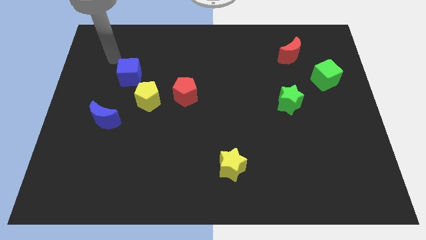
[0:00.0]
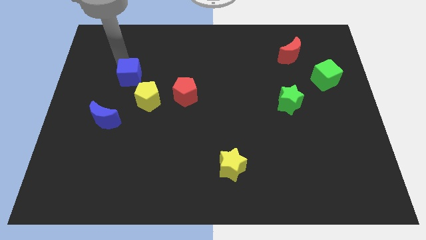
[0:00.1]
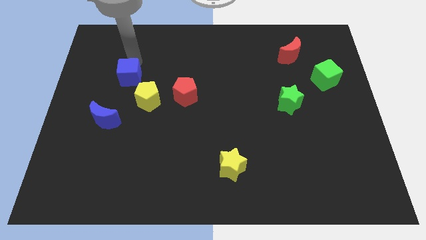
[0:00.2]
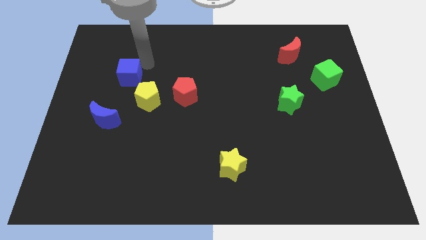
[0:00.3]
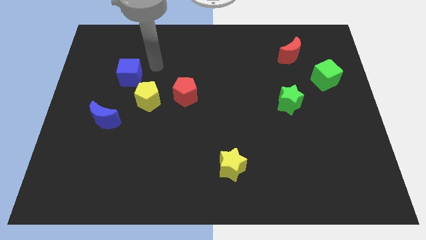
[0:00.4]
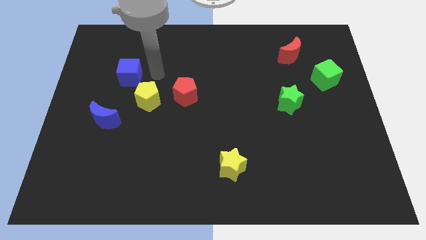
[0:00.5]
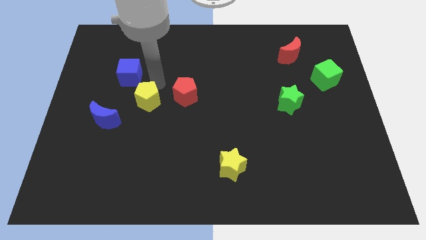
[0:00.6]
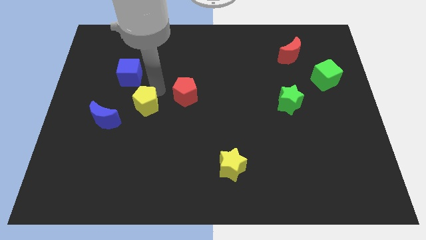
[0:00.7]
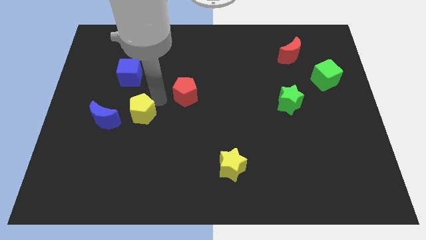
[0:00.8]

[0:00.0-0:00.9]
pull the red pentagon apart from the yellow pentagon

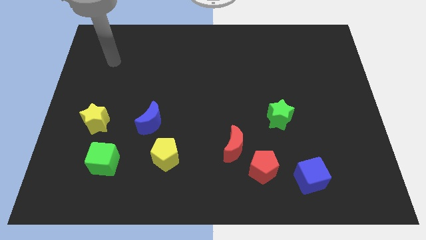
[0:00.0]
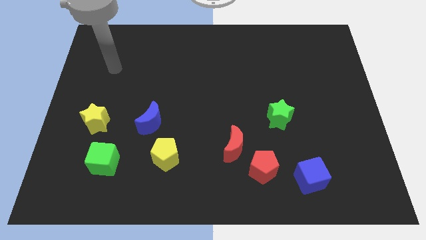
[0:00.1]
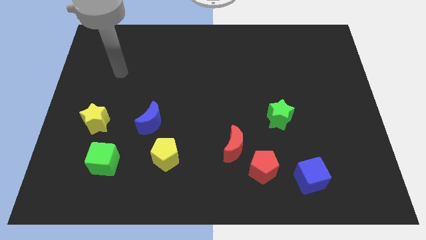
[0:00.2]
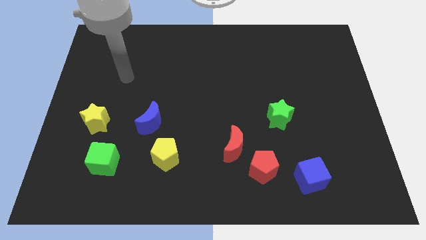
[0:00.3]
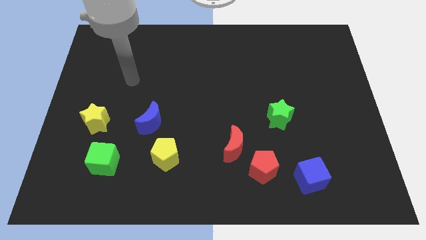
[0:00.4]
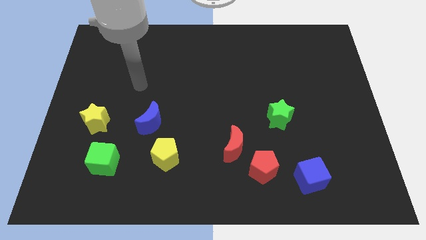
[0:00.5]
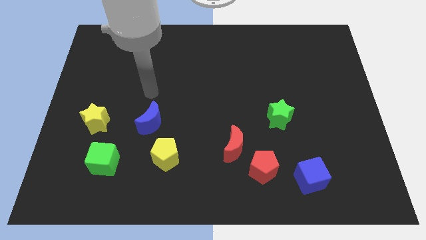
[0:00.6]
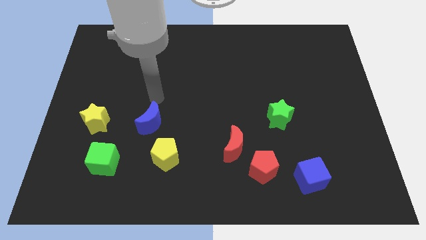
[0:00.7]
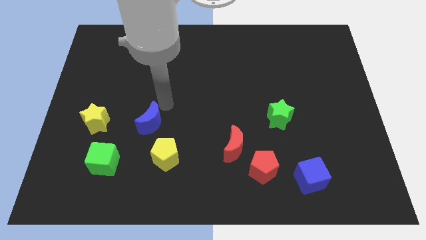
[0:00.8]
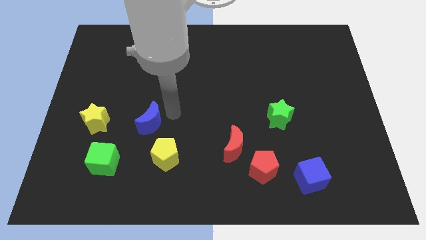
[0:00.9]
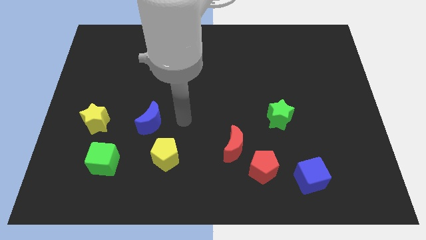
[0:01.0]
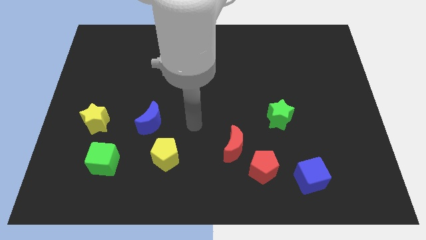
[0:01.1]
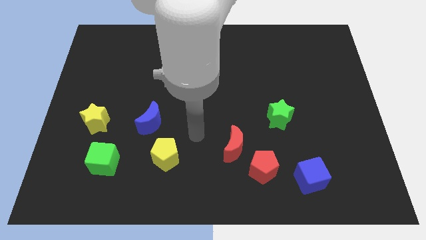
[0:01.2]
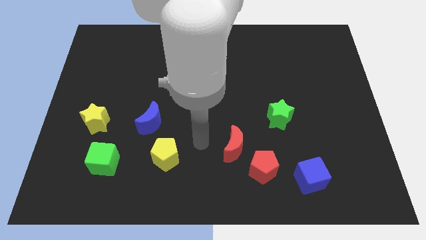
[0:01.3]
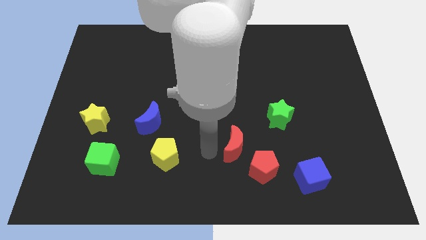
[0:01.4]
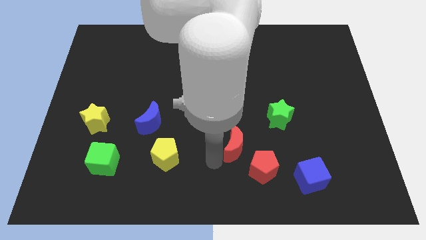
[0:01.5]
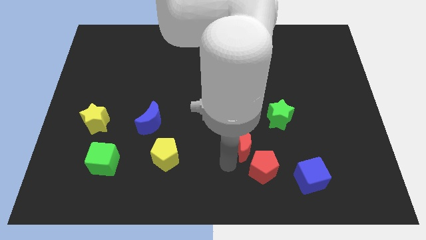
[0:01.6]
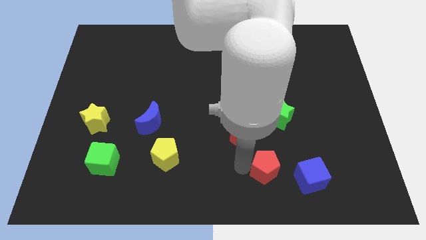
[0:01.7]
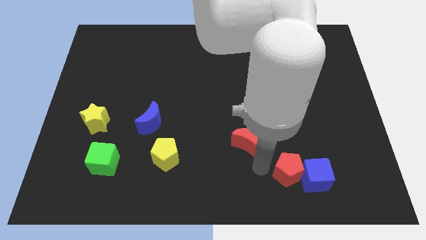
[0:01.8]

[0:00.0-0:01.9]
pull the red moon apart from the red pentagon

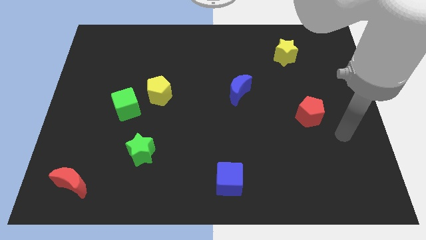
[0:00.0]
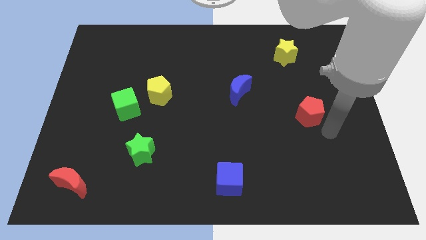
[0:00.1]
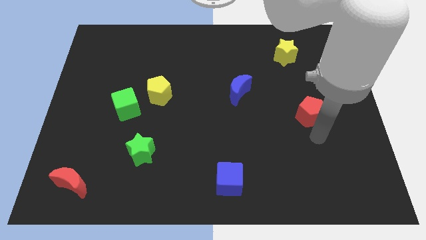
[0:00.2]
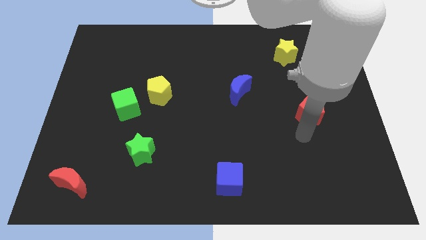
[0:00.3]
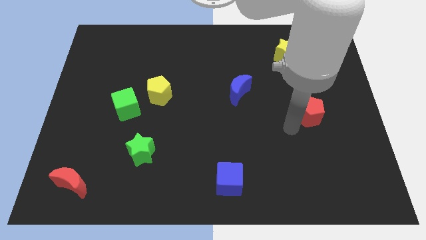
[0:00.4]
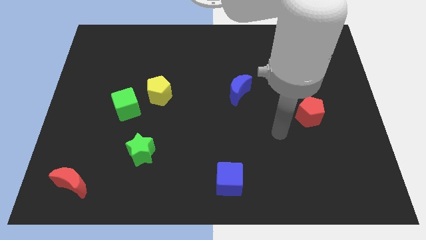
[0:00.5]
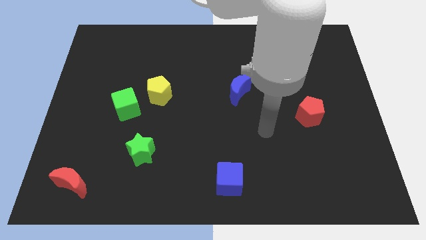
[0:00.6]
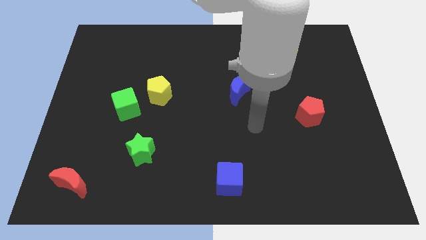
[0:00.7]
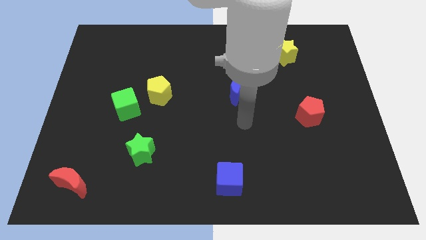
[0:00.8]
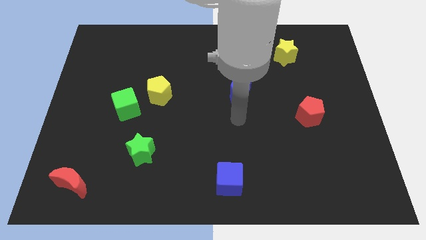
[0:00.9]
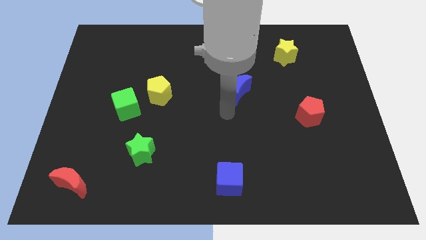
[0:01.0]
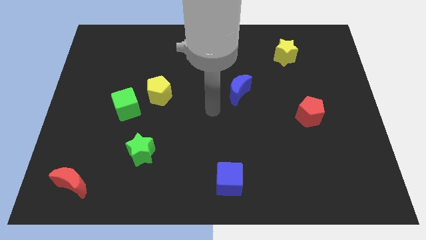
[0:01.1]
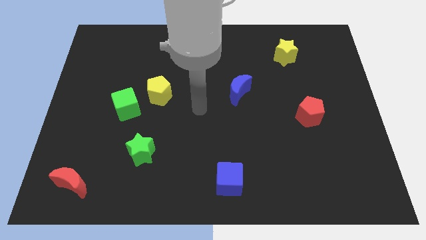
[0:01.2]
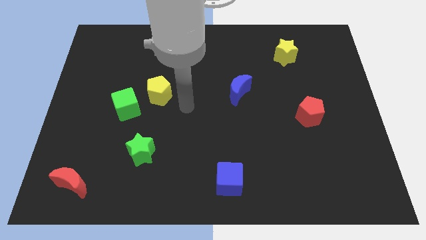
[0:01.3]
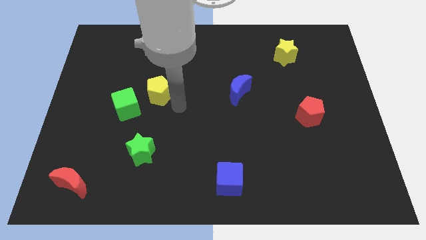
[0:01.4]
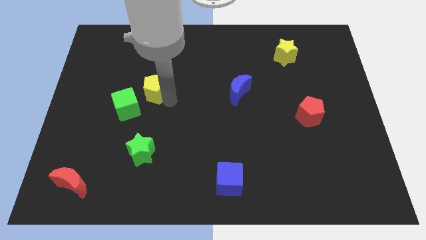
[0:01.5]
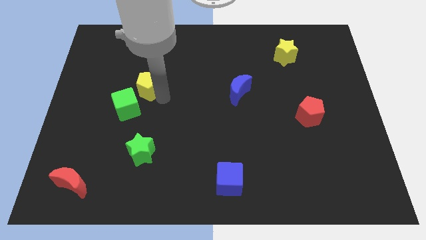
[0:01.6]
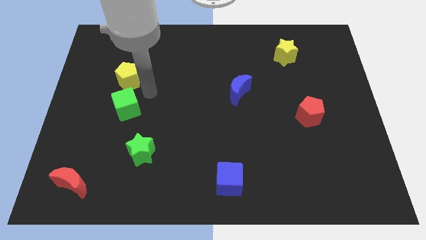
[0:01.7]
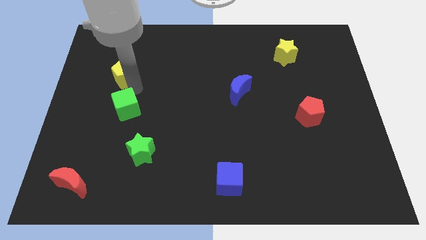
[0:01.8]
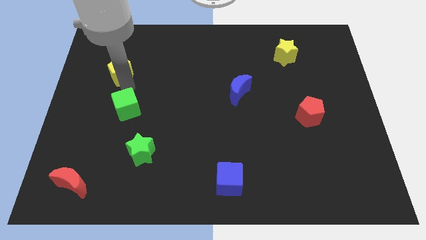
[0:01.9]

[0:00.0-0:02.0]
pull the green cube apart from the yellow pentagon

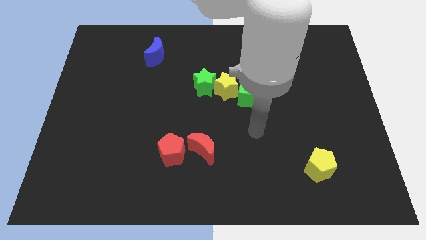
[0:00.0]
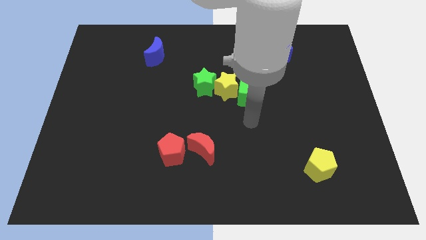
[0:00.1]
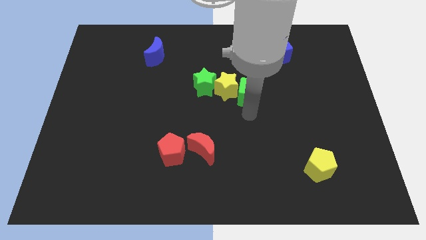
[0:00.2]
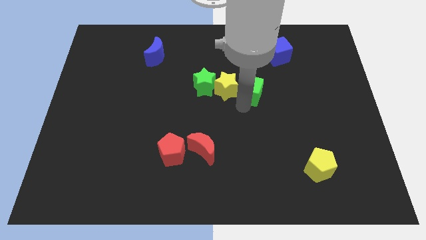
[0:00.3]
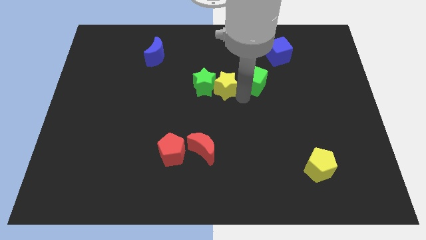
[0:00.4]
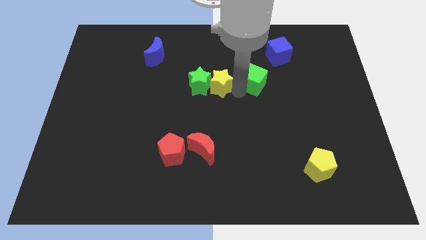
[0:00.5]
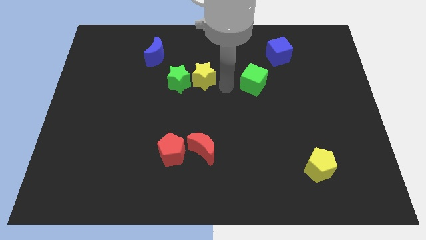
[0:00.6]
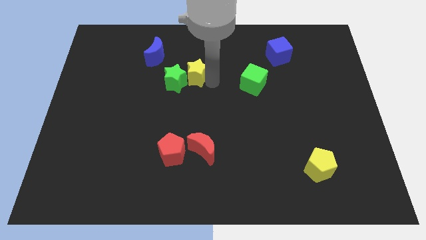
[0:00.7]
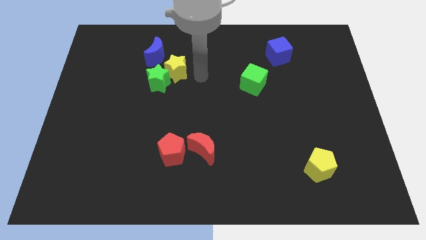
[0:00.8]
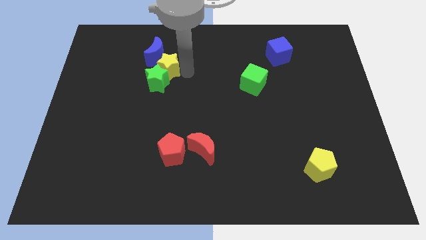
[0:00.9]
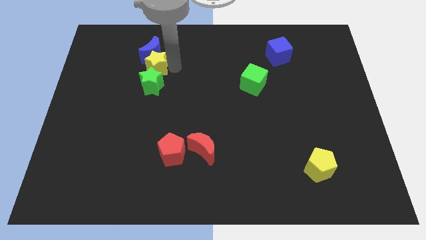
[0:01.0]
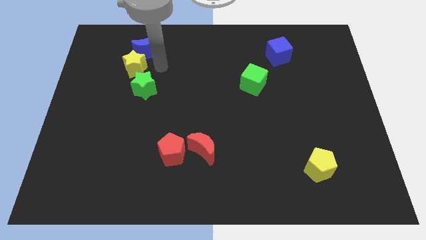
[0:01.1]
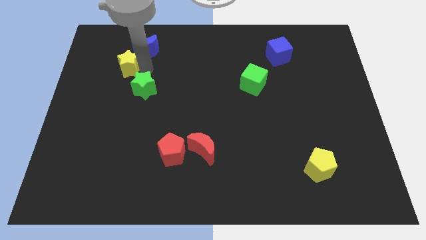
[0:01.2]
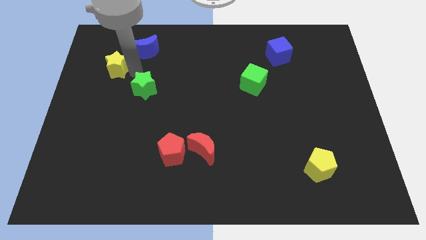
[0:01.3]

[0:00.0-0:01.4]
separate the green star from the yellow star

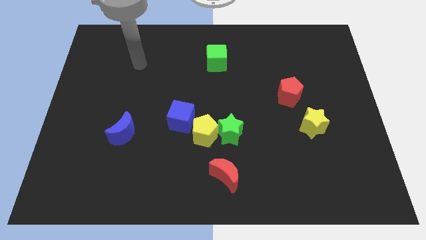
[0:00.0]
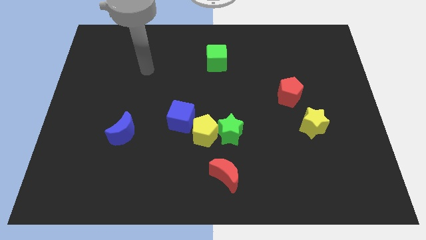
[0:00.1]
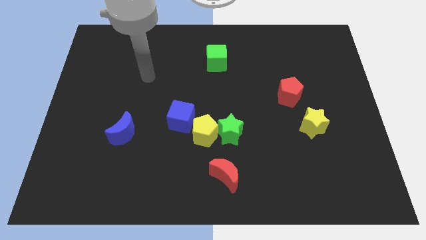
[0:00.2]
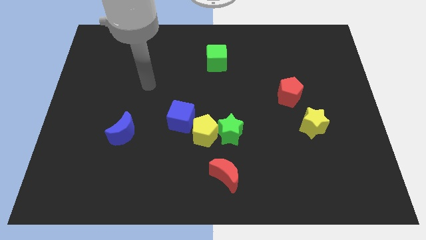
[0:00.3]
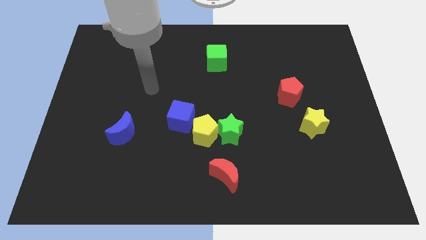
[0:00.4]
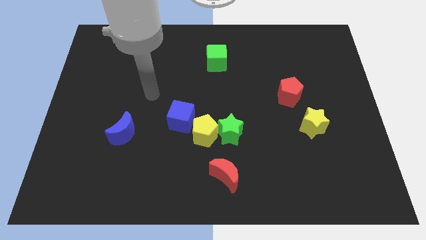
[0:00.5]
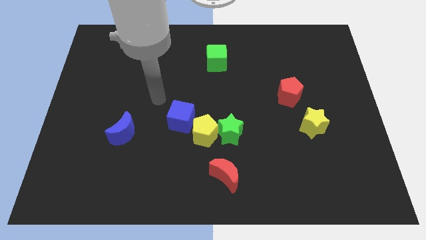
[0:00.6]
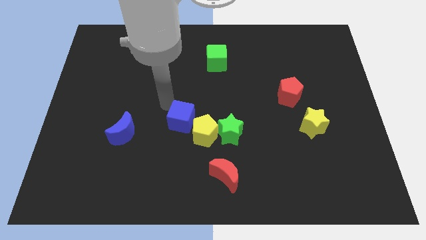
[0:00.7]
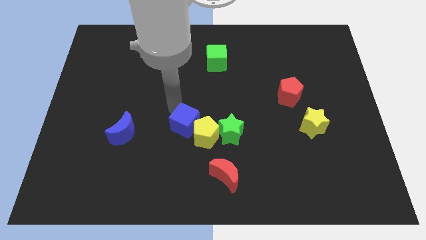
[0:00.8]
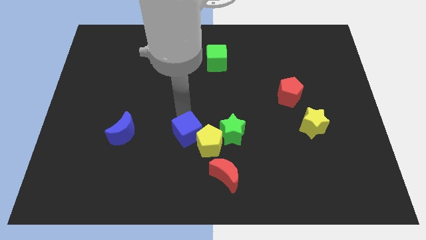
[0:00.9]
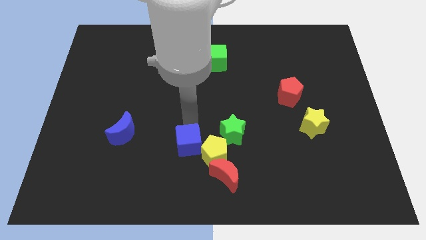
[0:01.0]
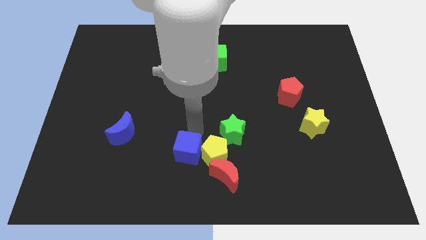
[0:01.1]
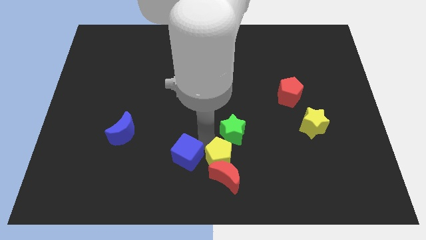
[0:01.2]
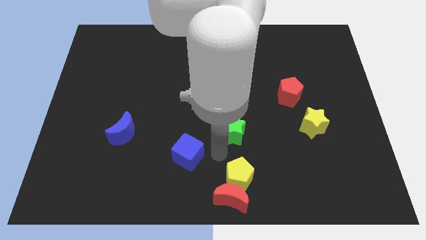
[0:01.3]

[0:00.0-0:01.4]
pull the green star apart from the yellow pentagon

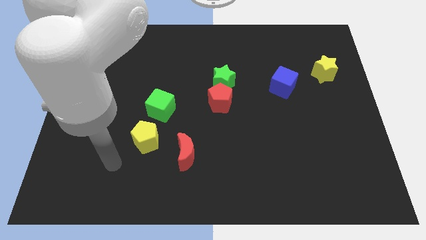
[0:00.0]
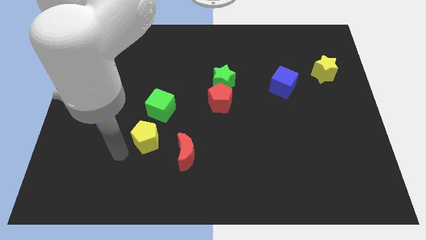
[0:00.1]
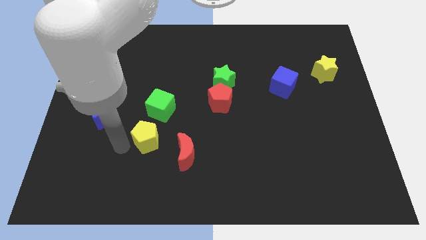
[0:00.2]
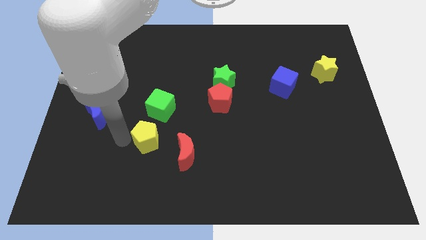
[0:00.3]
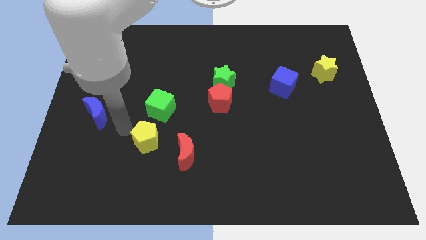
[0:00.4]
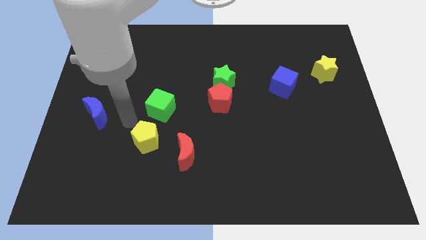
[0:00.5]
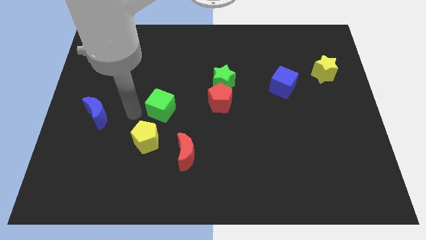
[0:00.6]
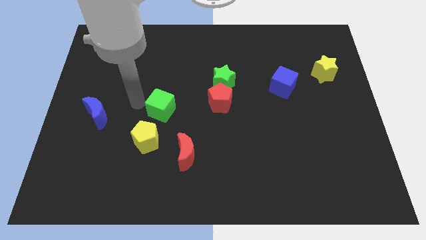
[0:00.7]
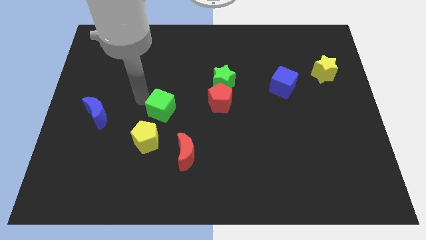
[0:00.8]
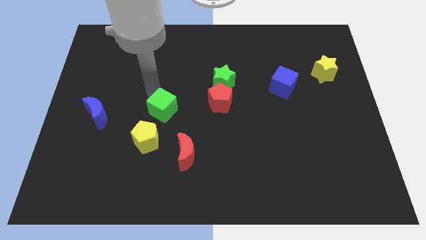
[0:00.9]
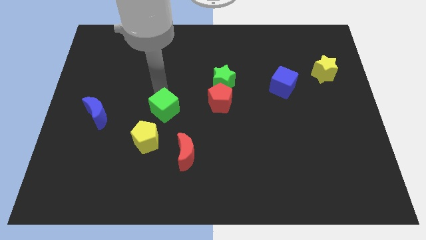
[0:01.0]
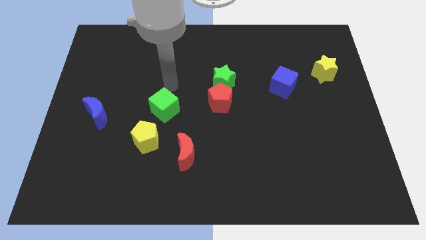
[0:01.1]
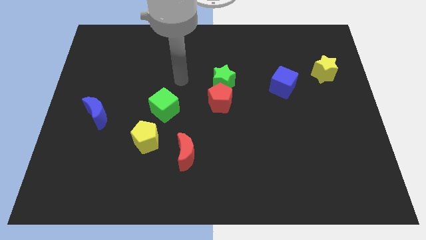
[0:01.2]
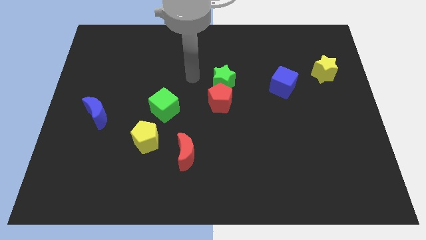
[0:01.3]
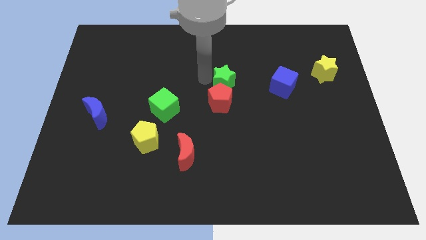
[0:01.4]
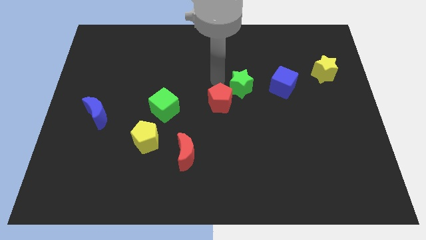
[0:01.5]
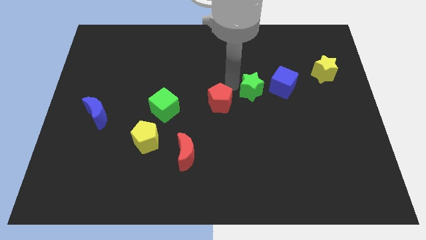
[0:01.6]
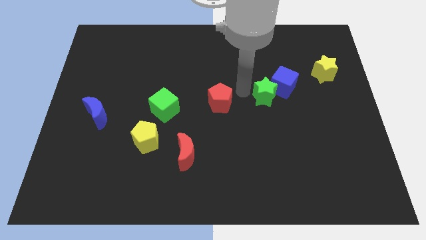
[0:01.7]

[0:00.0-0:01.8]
pull the red pentagon apart from the green star
